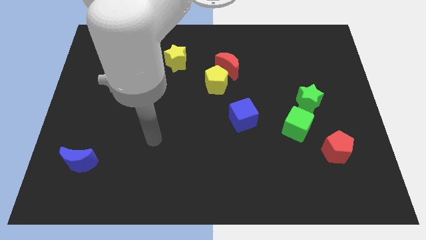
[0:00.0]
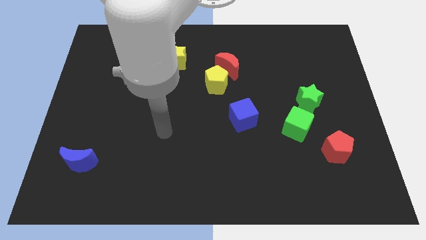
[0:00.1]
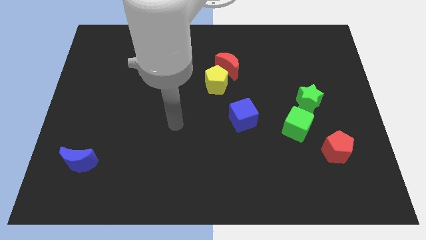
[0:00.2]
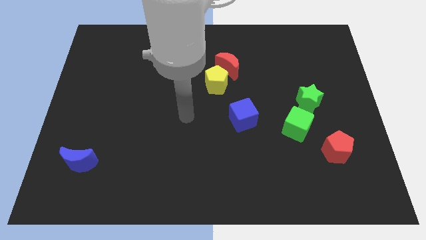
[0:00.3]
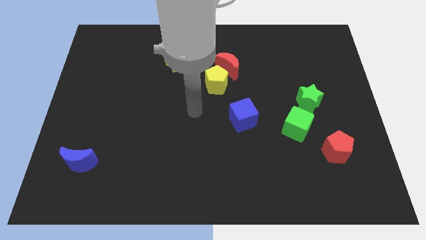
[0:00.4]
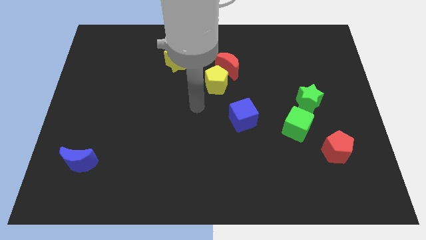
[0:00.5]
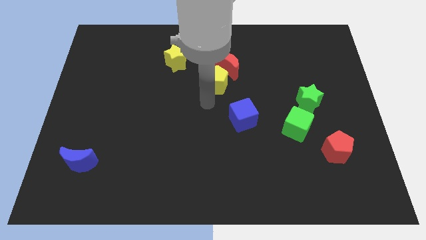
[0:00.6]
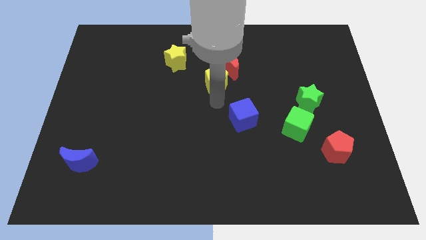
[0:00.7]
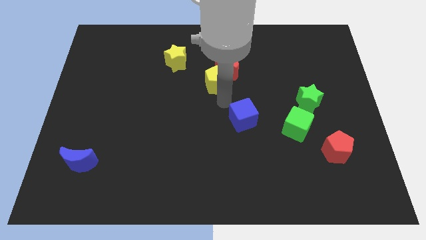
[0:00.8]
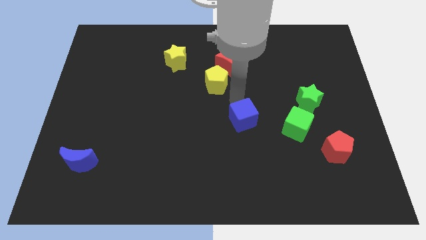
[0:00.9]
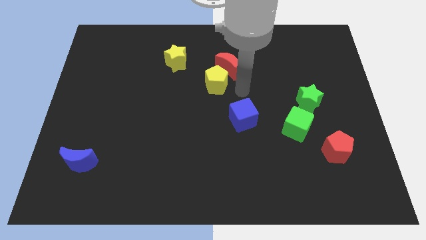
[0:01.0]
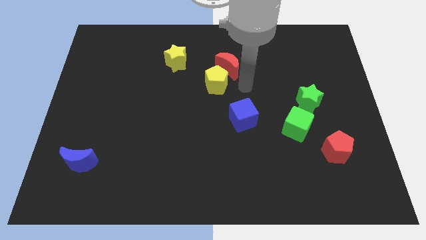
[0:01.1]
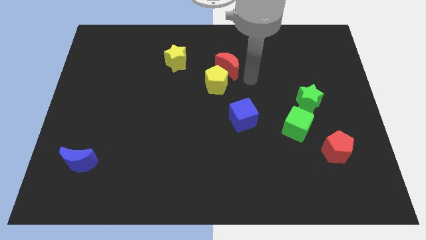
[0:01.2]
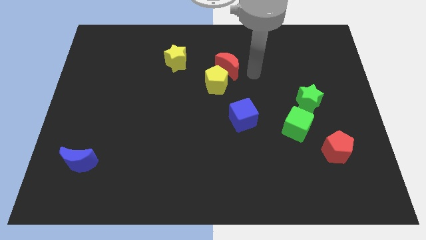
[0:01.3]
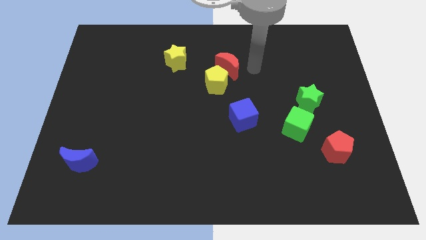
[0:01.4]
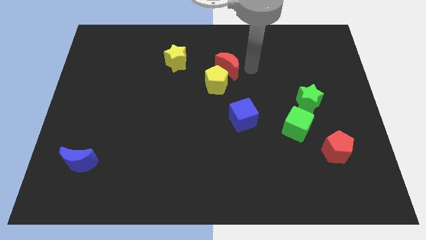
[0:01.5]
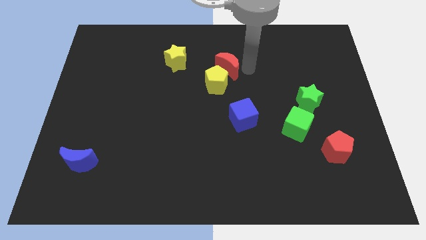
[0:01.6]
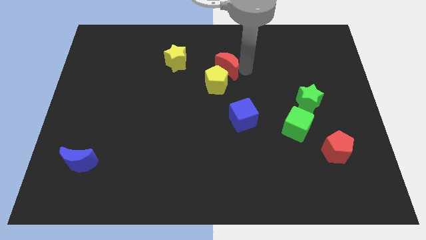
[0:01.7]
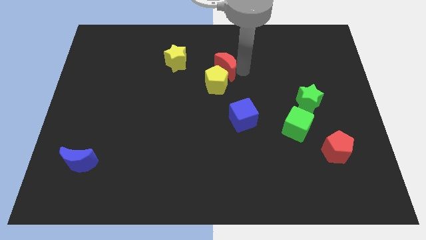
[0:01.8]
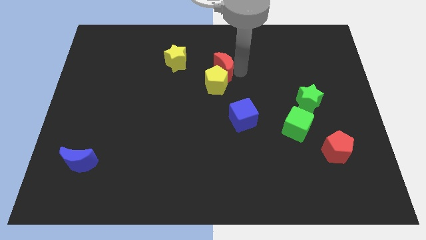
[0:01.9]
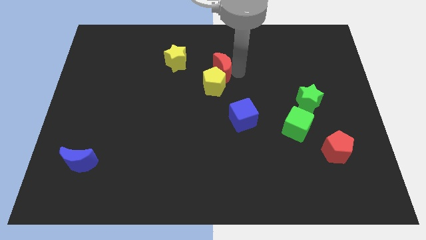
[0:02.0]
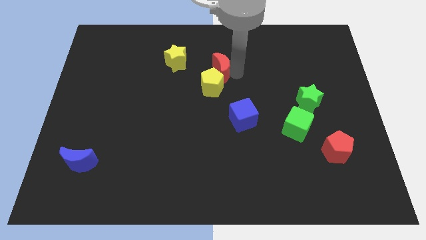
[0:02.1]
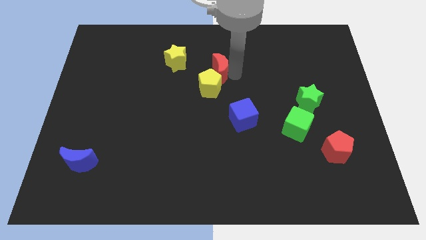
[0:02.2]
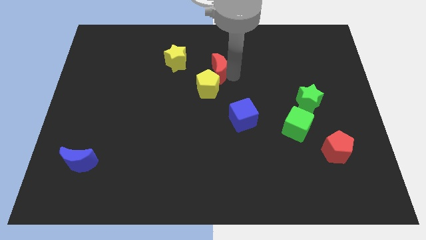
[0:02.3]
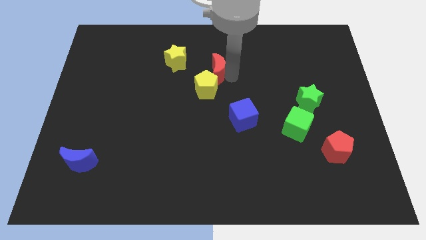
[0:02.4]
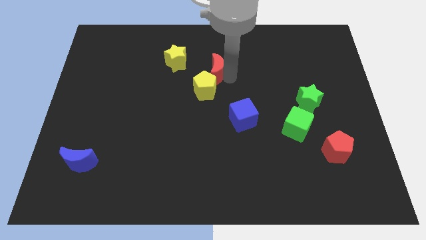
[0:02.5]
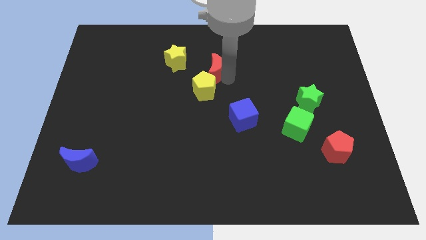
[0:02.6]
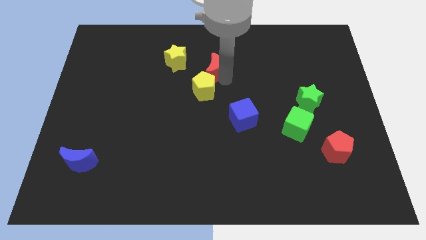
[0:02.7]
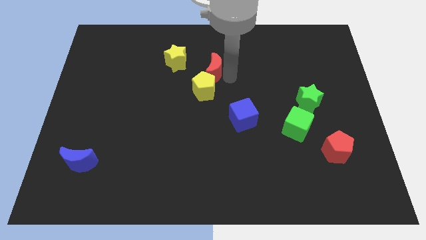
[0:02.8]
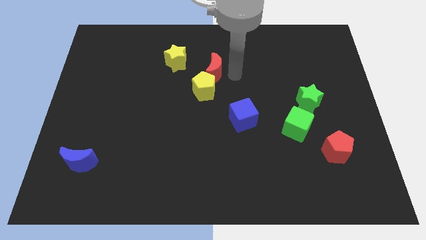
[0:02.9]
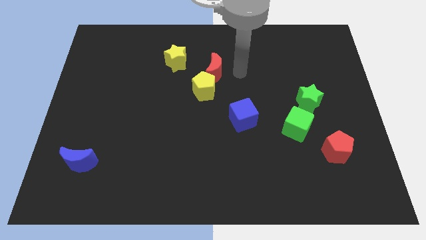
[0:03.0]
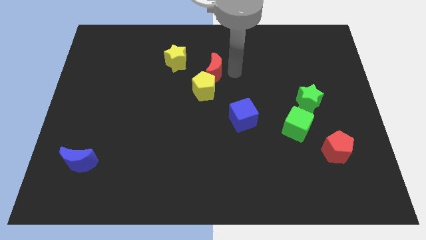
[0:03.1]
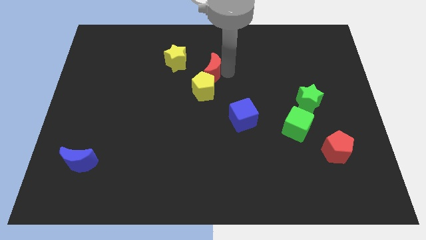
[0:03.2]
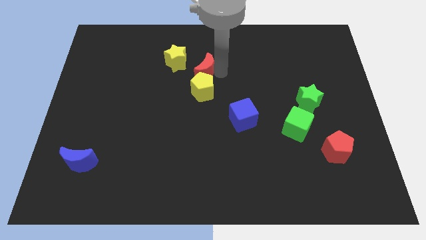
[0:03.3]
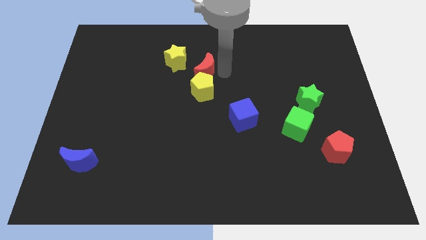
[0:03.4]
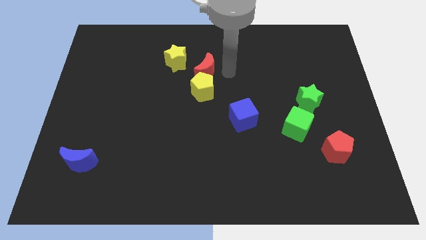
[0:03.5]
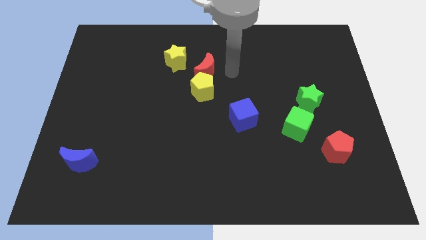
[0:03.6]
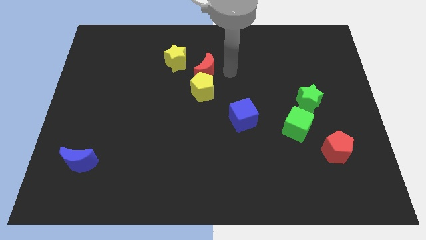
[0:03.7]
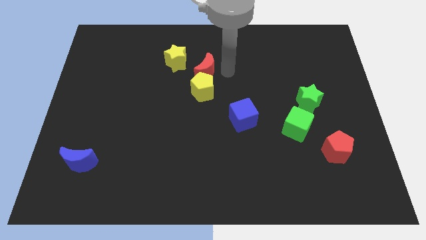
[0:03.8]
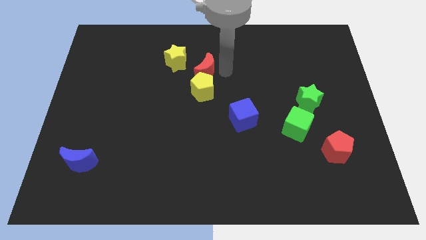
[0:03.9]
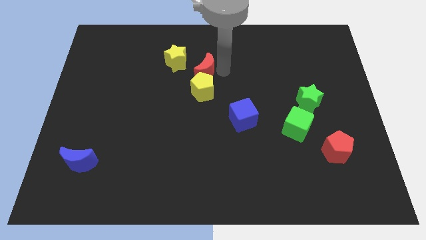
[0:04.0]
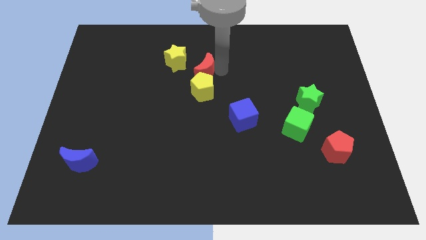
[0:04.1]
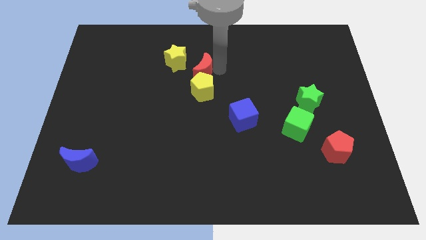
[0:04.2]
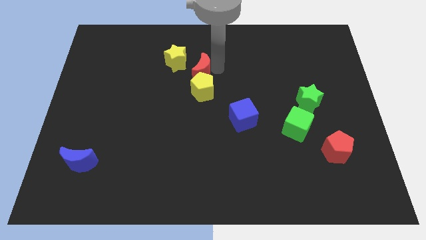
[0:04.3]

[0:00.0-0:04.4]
move the red moon slightly left

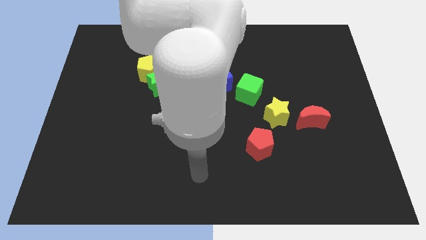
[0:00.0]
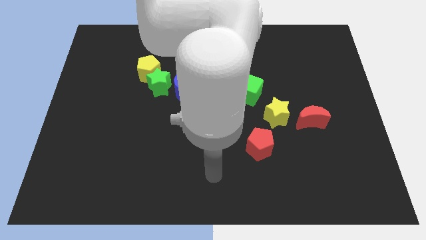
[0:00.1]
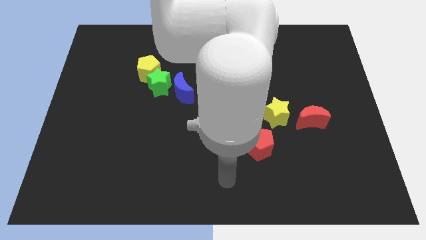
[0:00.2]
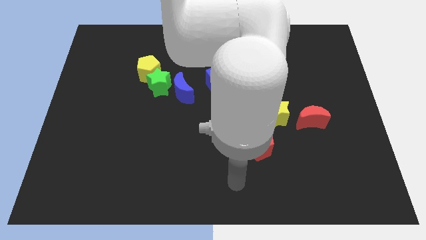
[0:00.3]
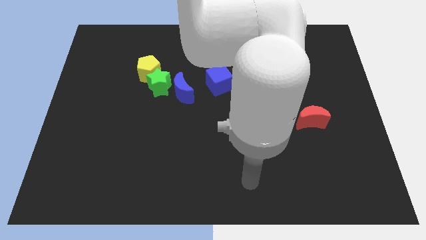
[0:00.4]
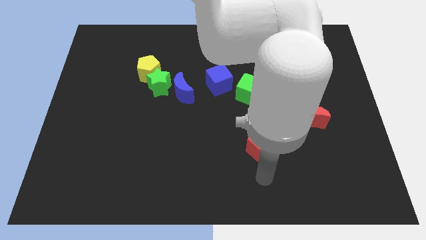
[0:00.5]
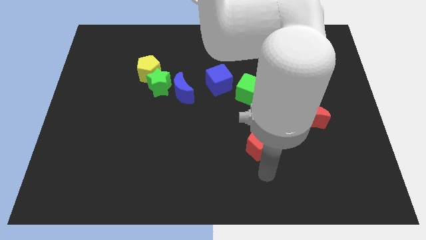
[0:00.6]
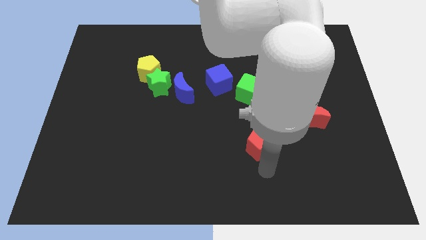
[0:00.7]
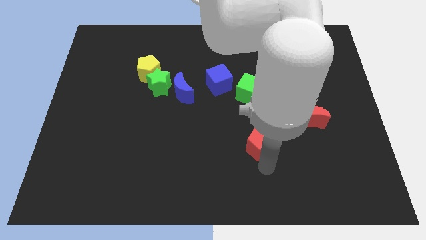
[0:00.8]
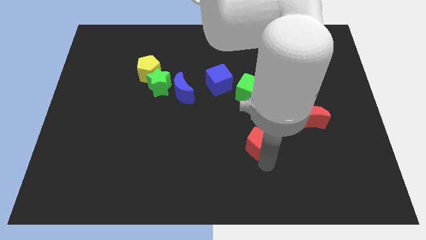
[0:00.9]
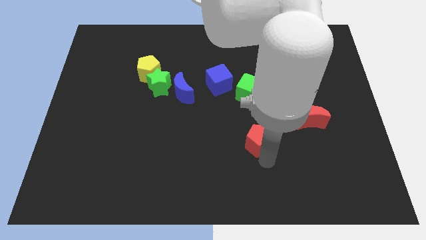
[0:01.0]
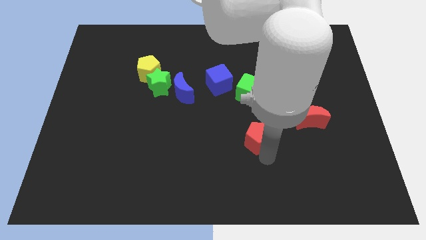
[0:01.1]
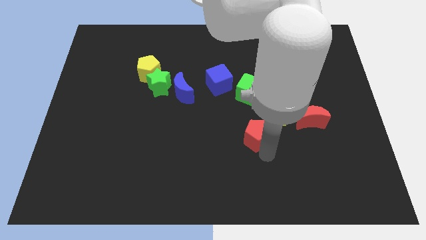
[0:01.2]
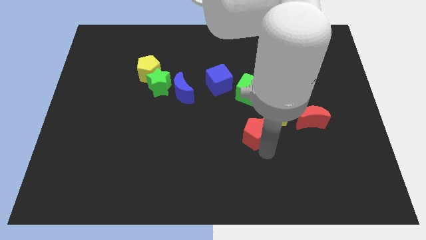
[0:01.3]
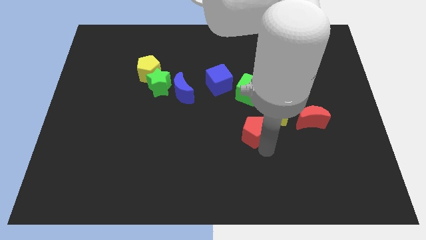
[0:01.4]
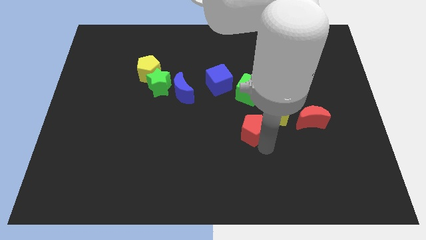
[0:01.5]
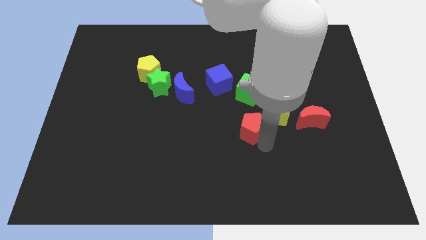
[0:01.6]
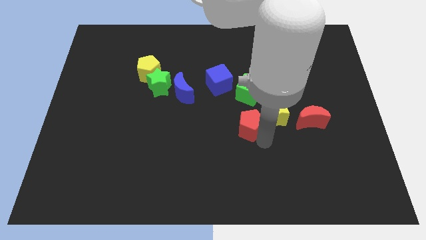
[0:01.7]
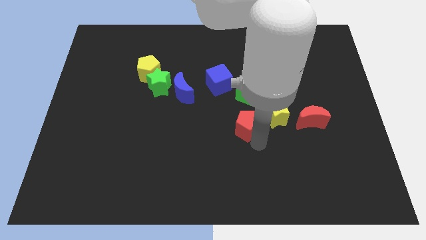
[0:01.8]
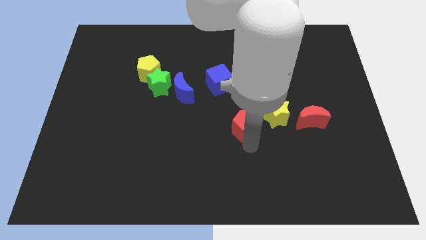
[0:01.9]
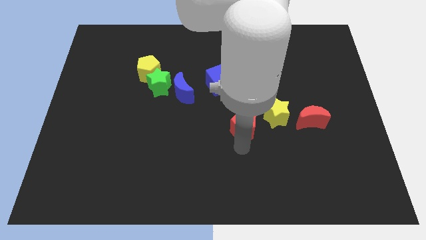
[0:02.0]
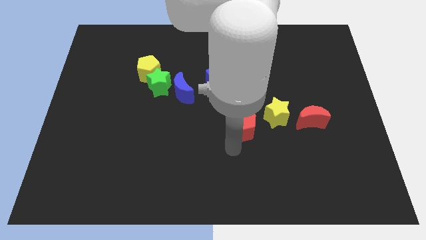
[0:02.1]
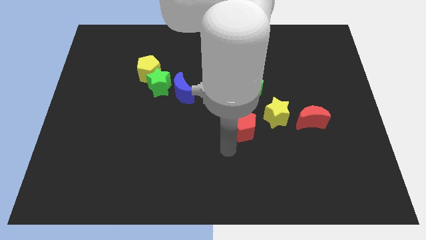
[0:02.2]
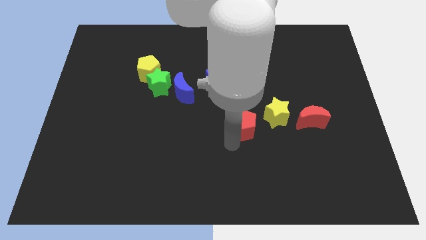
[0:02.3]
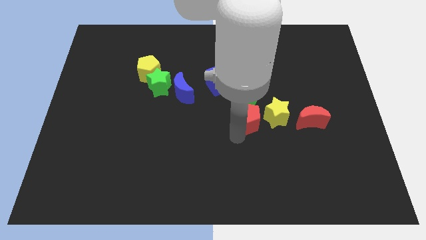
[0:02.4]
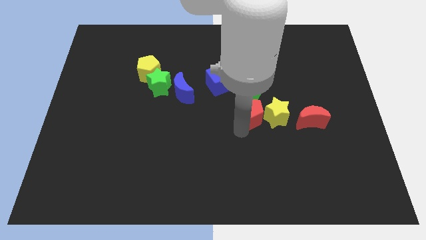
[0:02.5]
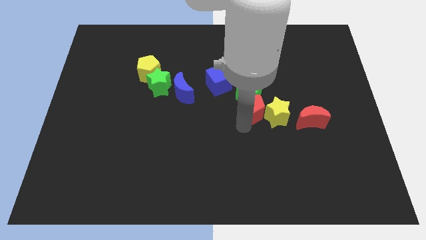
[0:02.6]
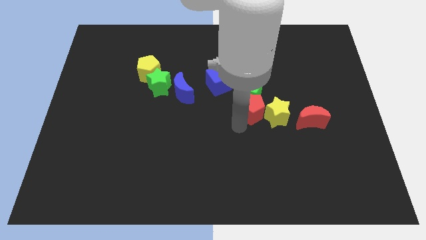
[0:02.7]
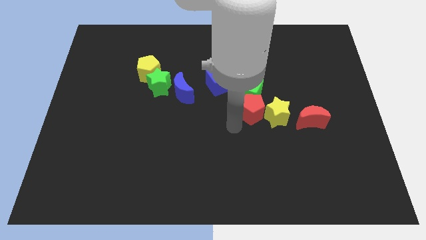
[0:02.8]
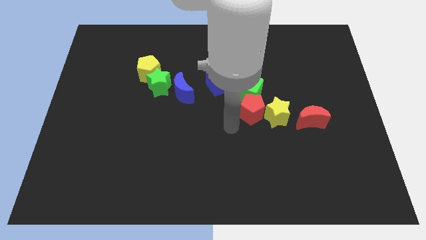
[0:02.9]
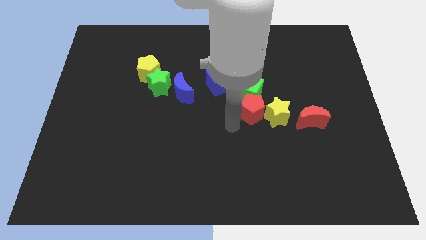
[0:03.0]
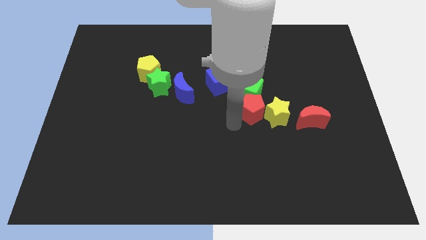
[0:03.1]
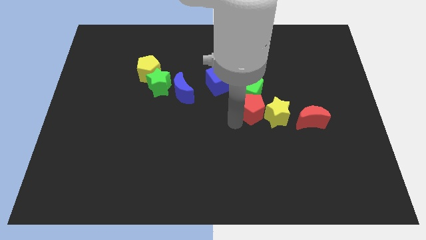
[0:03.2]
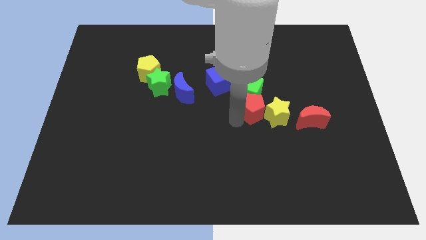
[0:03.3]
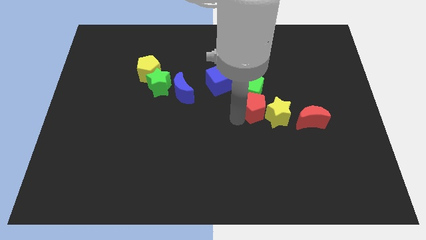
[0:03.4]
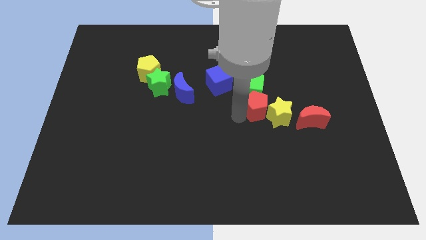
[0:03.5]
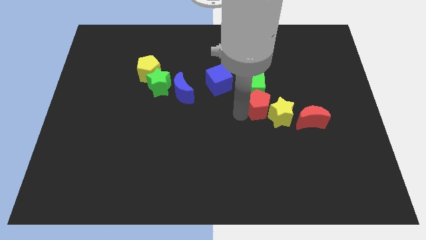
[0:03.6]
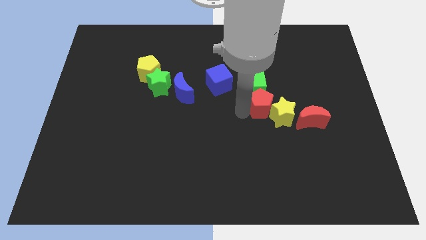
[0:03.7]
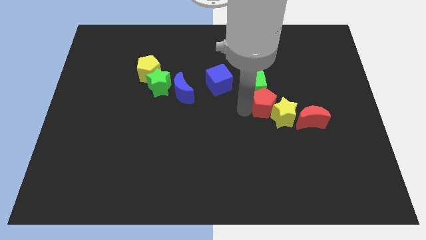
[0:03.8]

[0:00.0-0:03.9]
slide the red pentagon a little bit up and right
